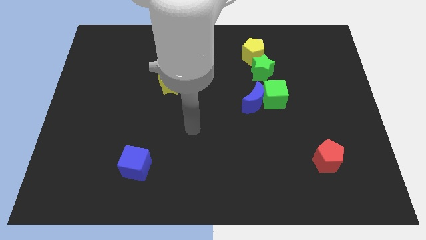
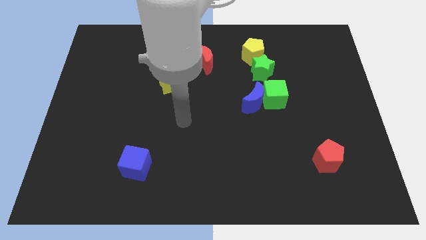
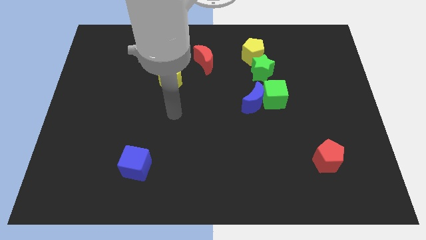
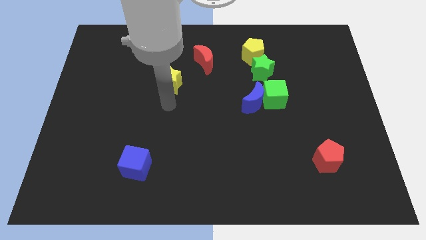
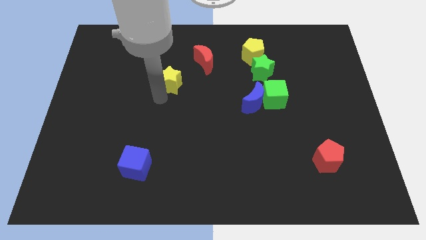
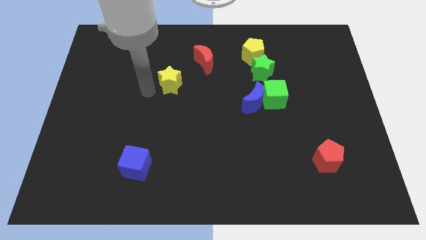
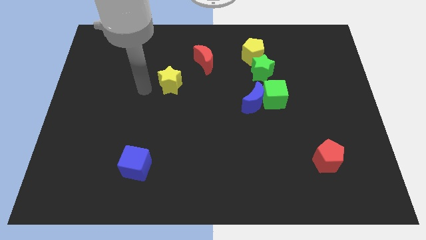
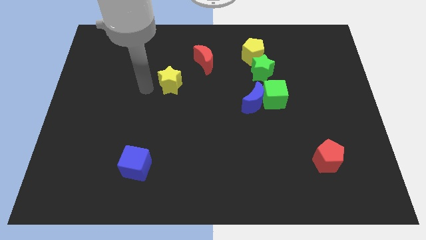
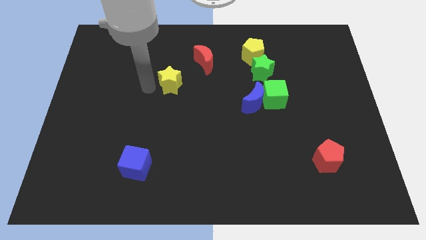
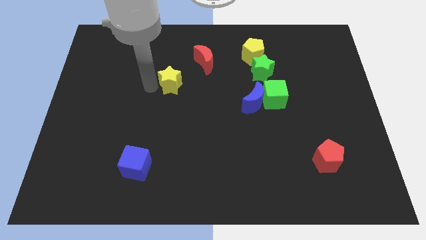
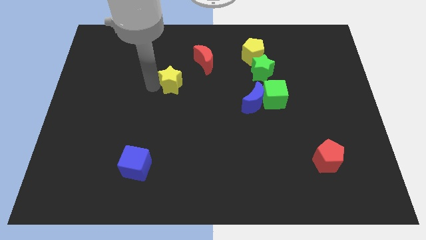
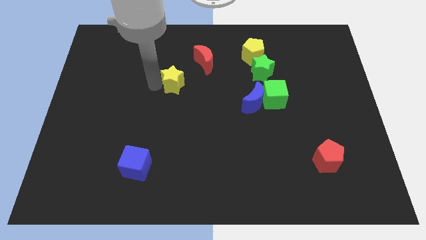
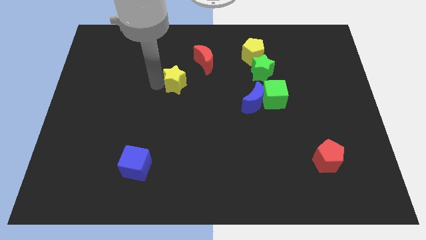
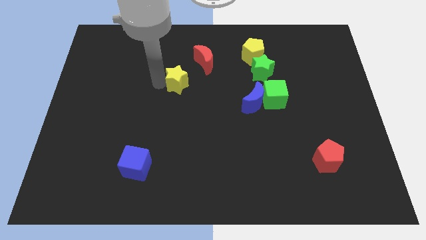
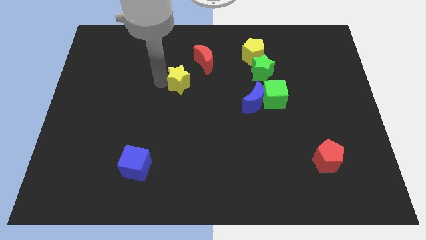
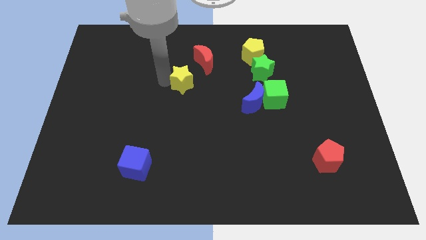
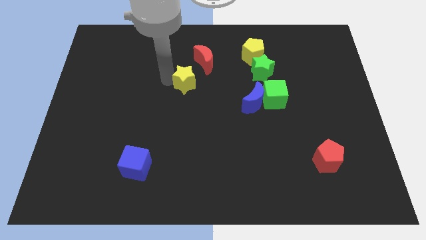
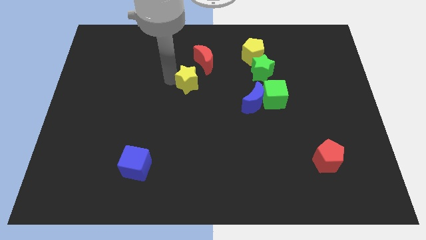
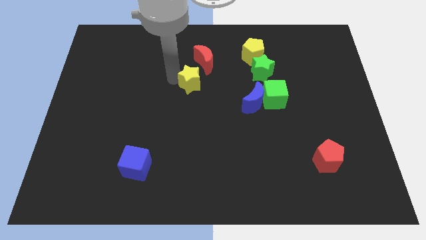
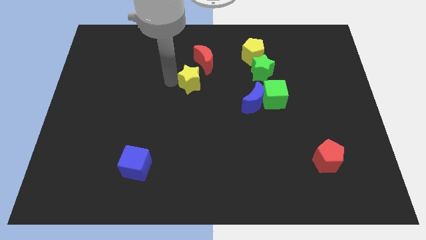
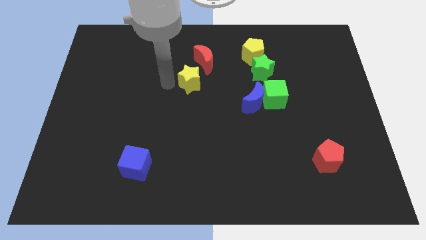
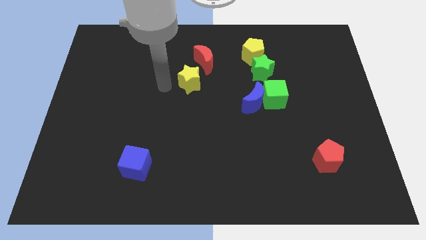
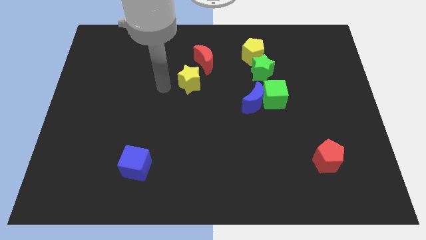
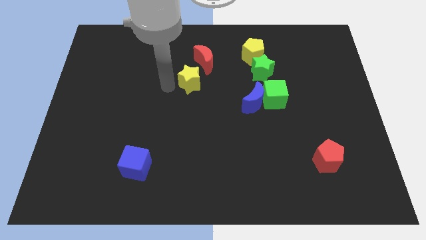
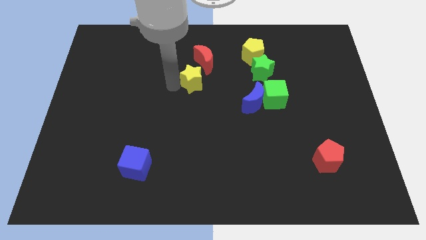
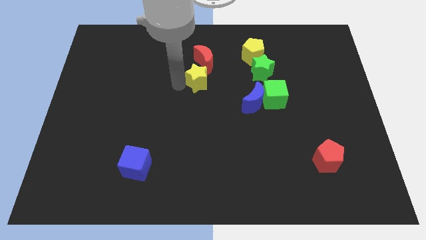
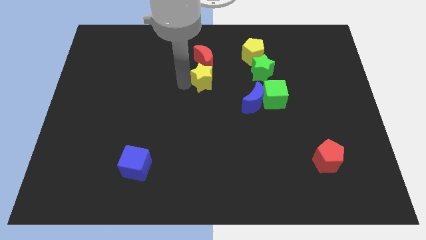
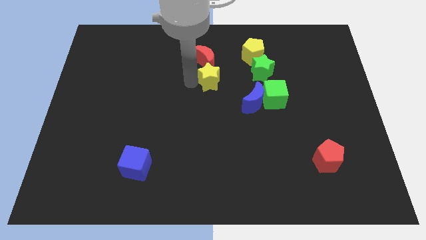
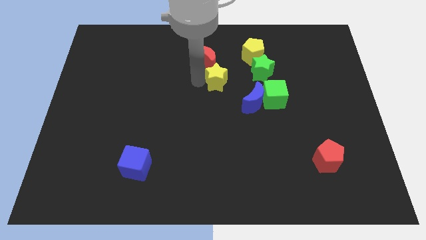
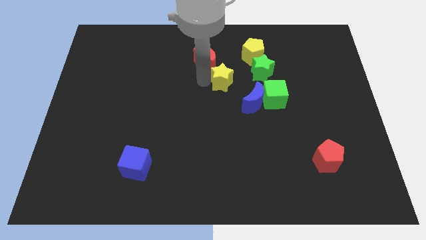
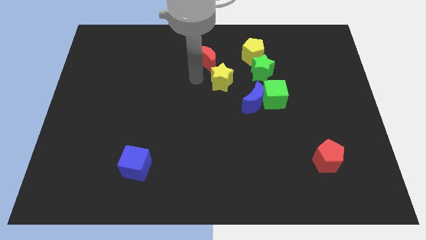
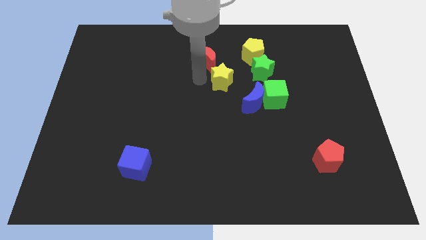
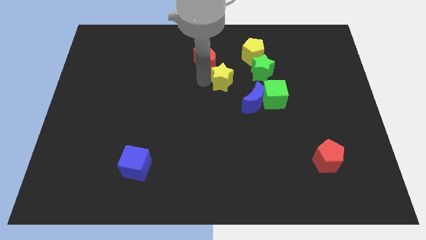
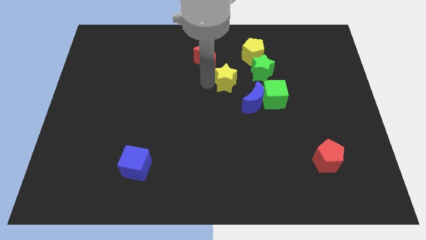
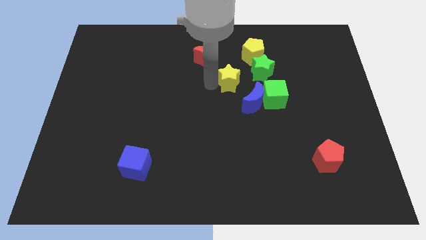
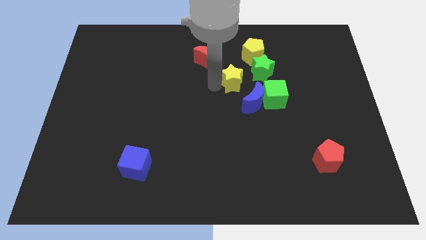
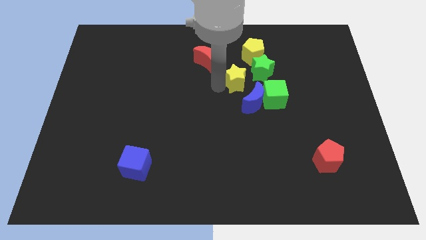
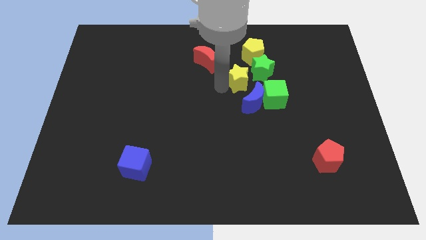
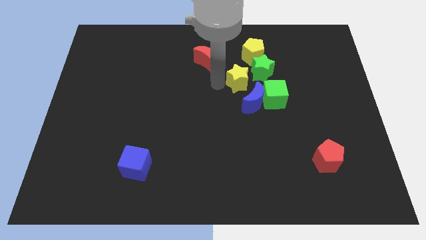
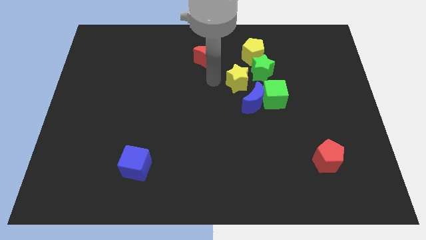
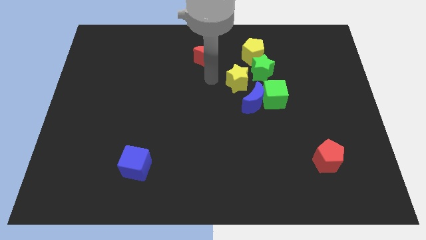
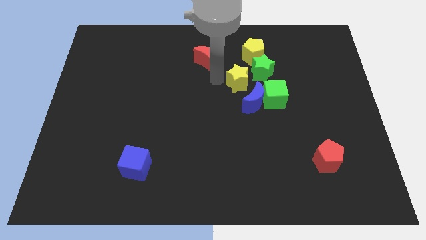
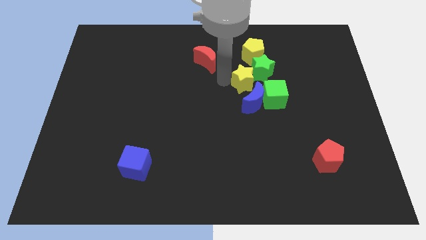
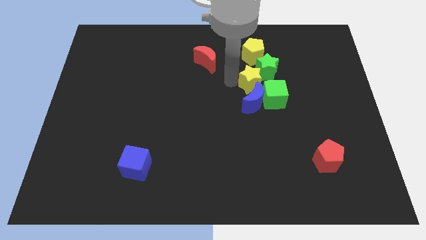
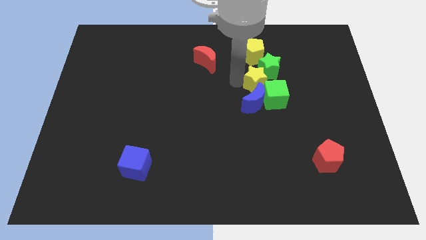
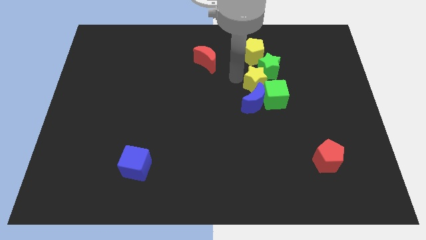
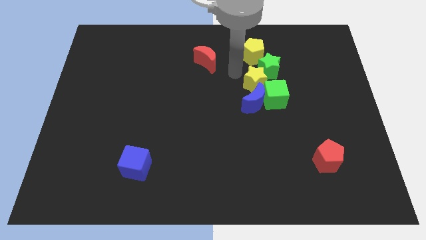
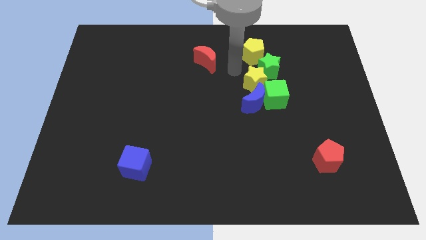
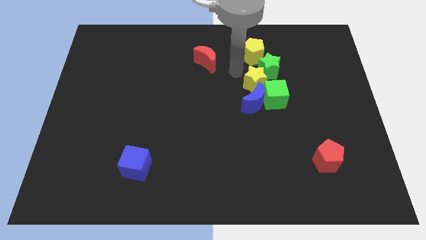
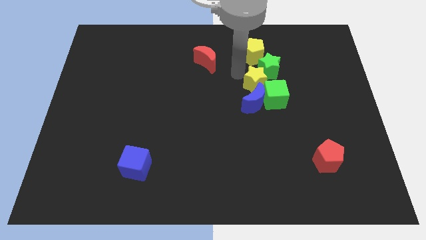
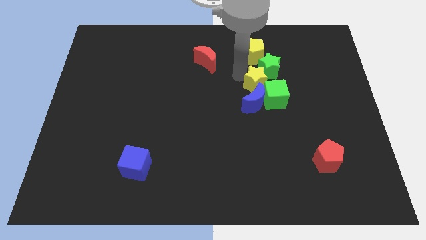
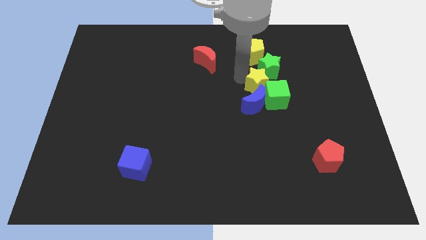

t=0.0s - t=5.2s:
move the yellow star next to the green cube

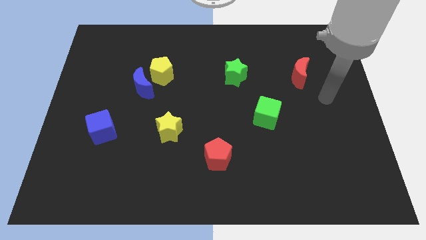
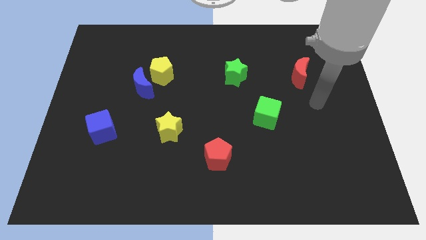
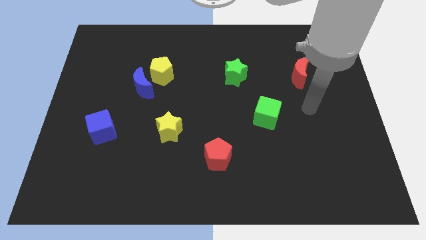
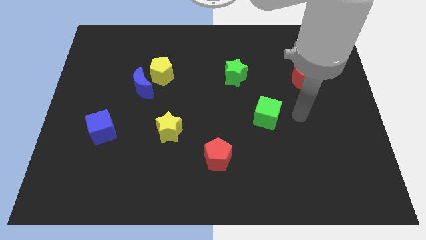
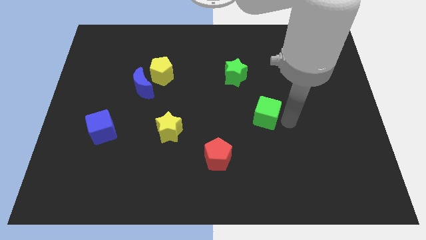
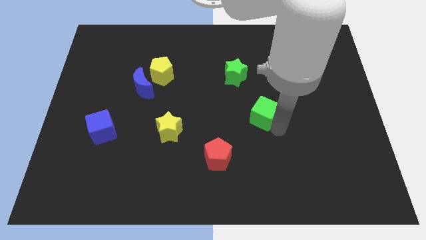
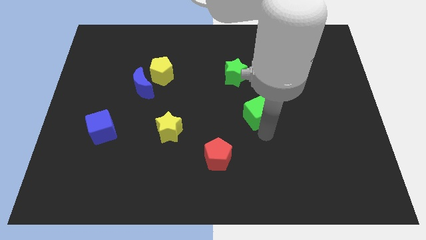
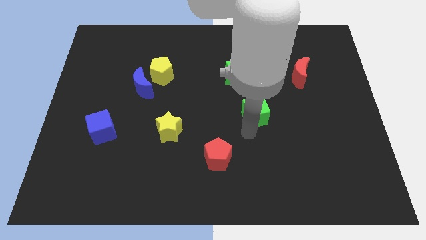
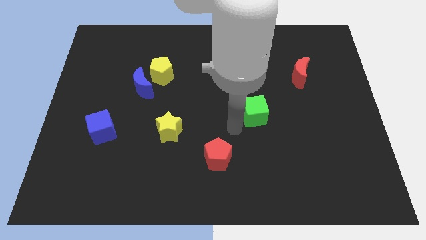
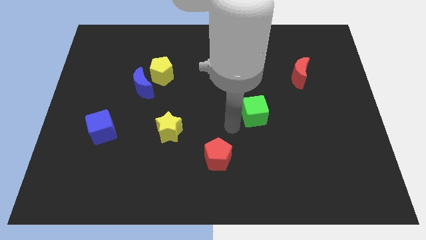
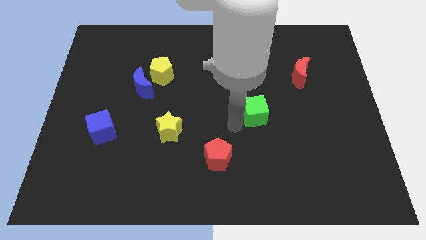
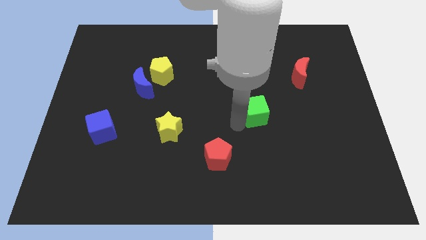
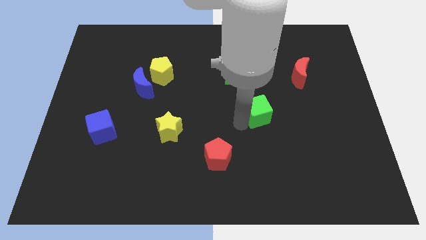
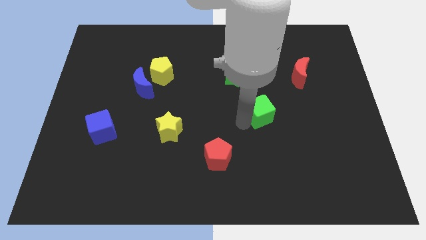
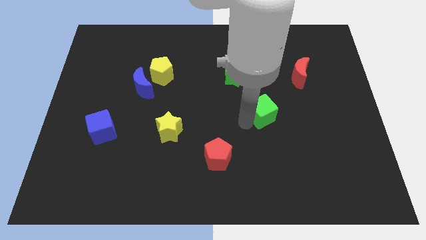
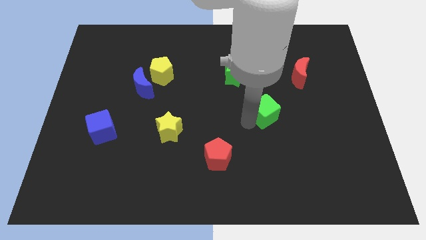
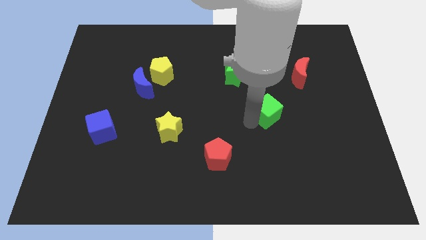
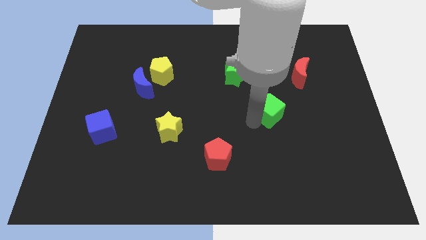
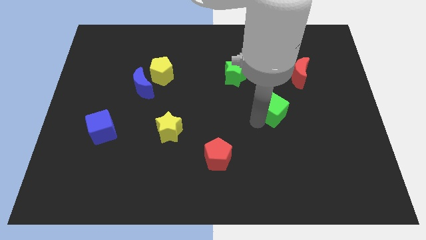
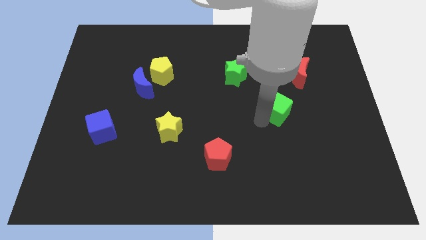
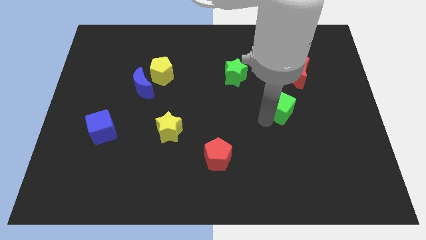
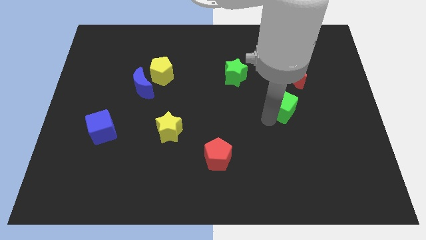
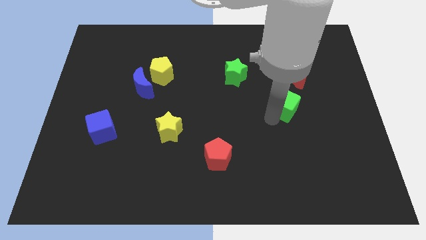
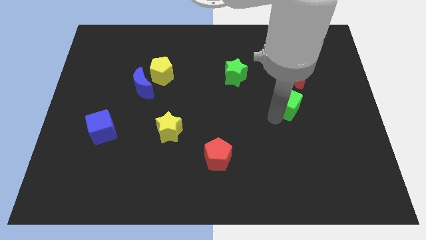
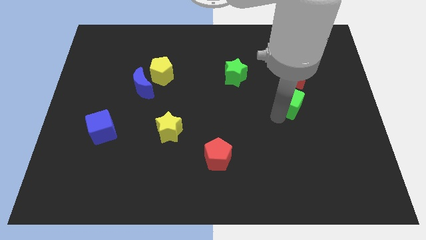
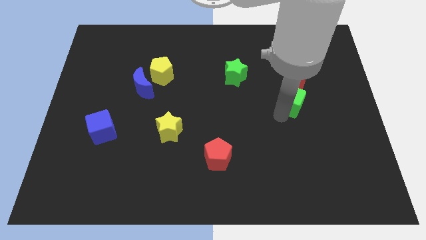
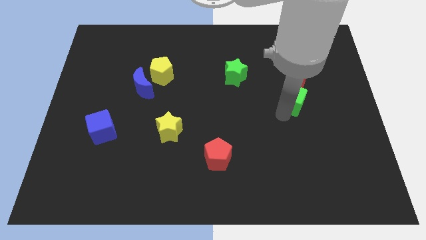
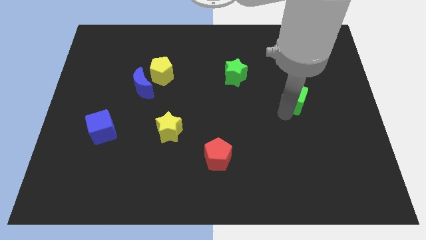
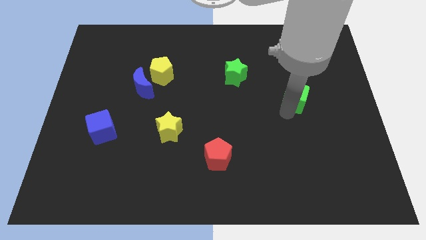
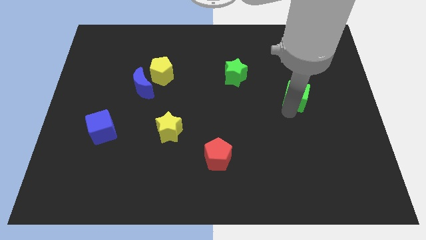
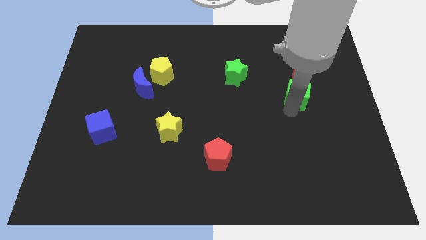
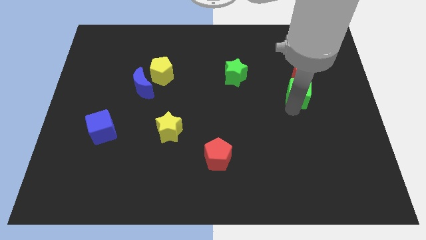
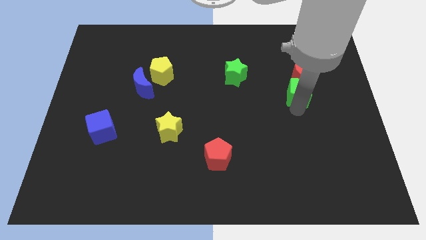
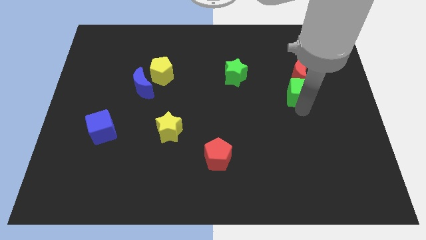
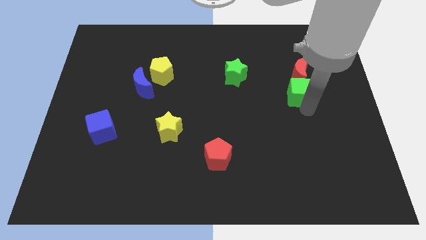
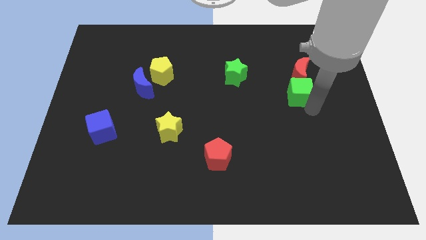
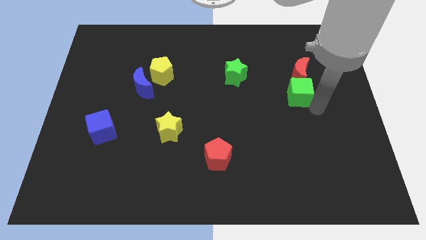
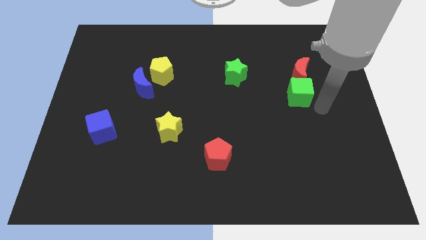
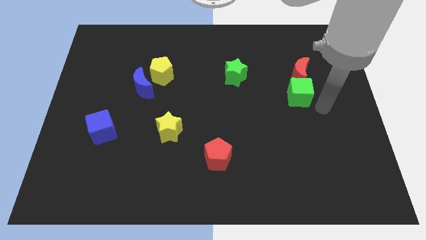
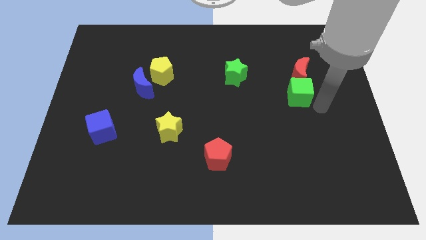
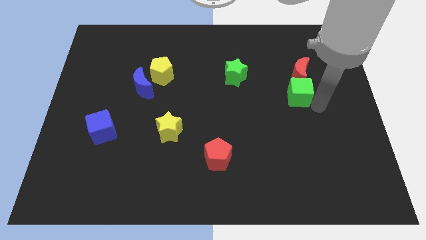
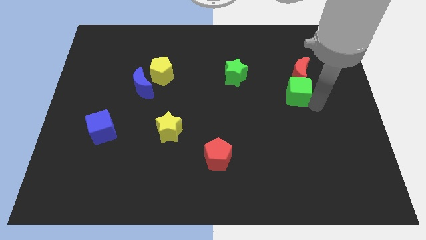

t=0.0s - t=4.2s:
put the green cube towards the red moon
